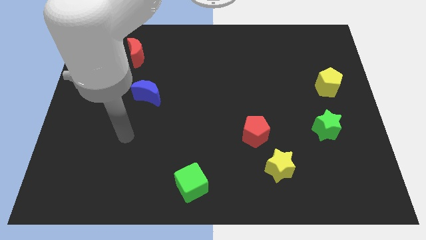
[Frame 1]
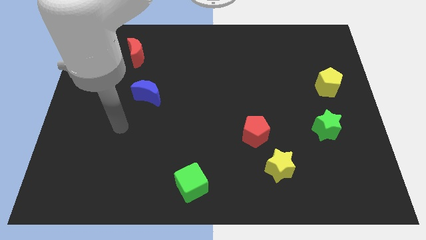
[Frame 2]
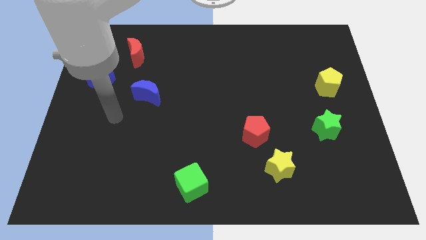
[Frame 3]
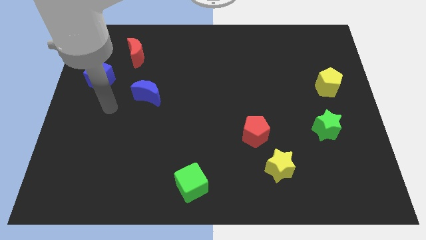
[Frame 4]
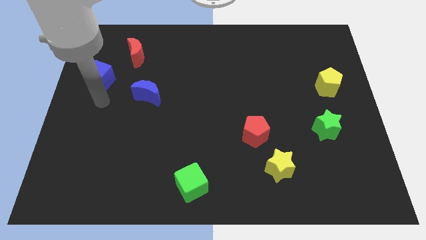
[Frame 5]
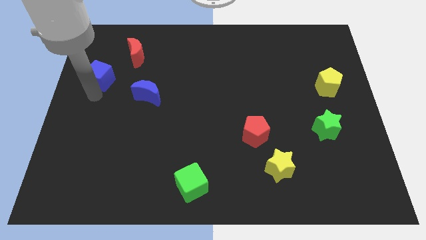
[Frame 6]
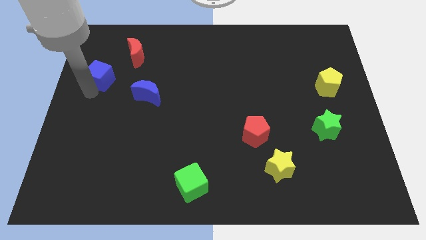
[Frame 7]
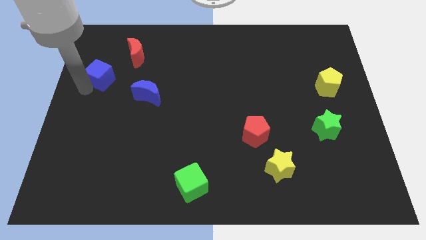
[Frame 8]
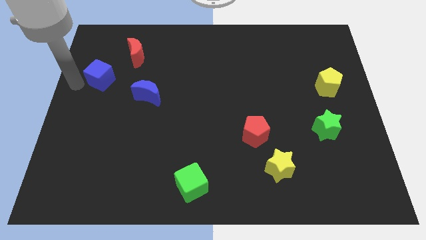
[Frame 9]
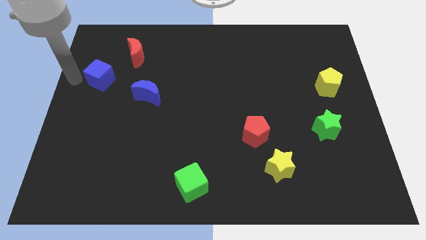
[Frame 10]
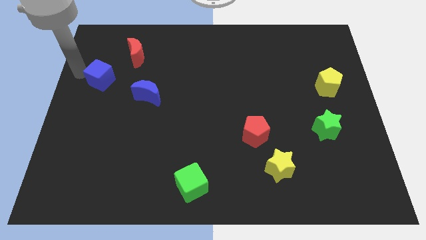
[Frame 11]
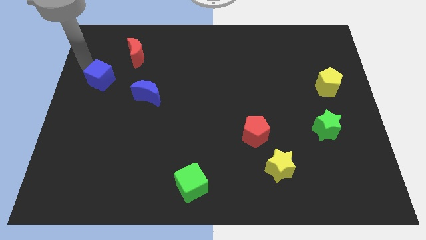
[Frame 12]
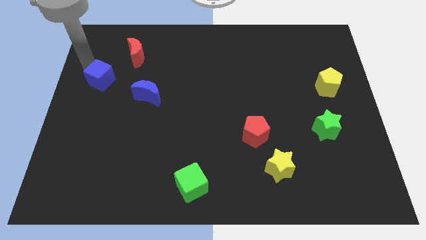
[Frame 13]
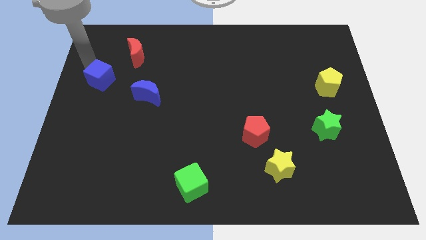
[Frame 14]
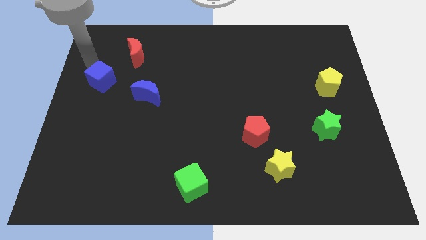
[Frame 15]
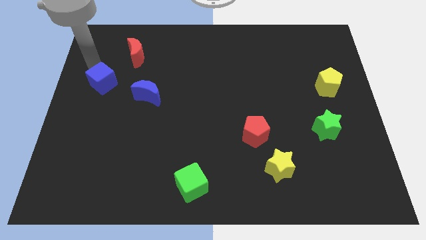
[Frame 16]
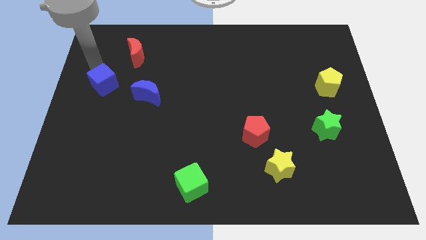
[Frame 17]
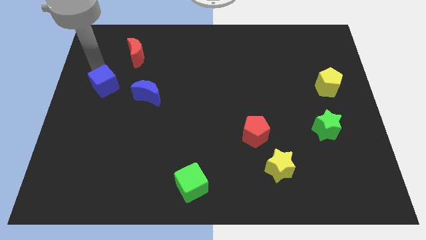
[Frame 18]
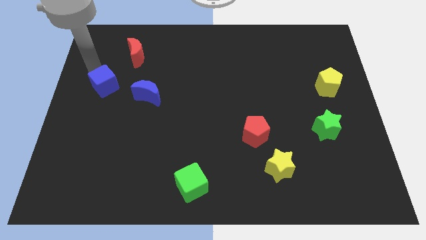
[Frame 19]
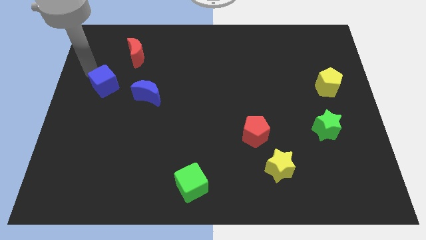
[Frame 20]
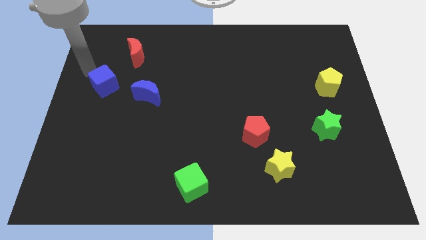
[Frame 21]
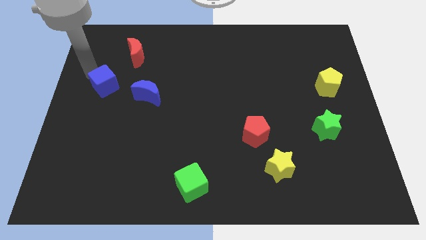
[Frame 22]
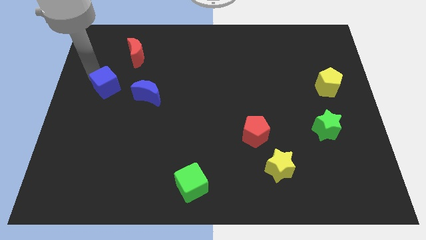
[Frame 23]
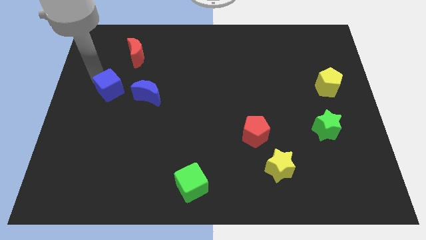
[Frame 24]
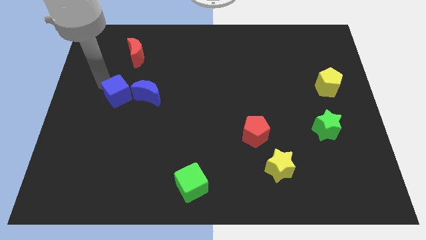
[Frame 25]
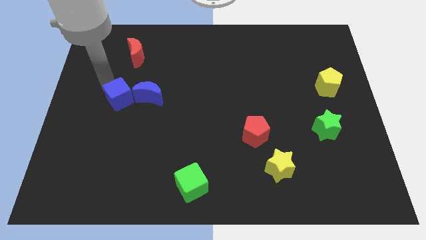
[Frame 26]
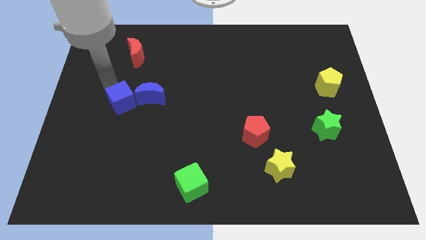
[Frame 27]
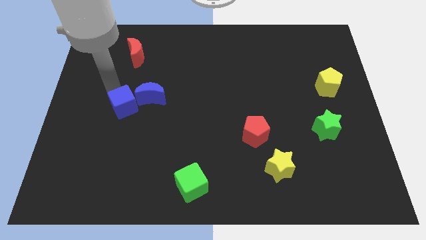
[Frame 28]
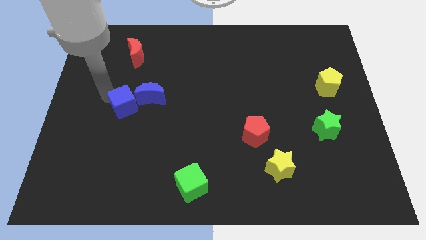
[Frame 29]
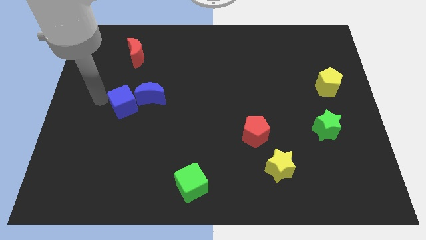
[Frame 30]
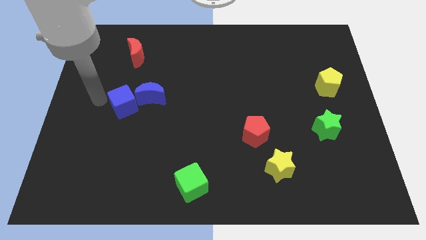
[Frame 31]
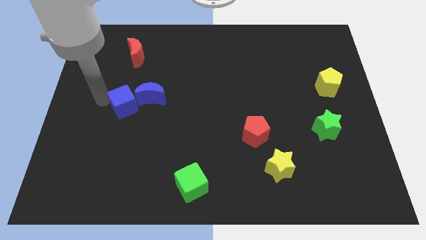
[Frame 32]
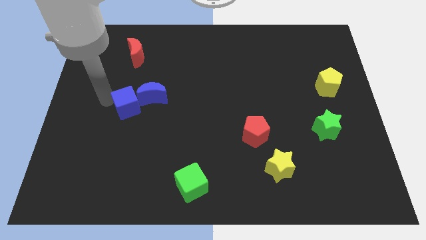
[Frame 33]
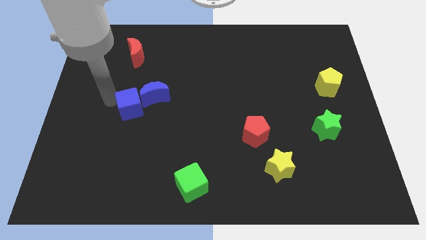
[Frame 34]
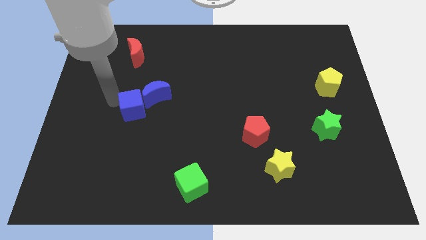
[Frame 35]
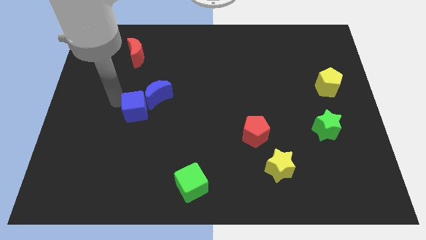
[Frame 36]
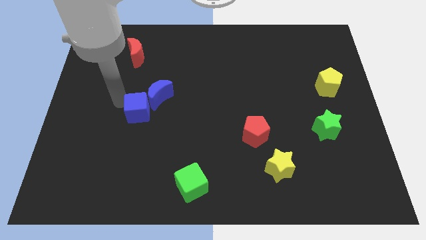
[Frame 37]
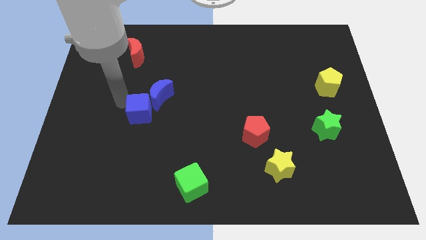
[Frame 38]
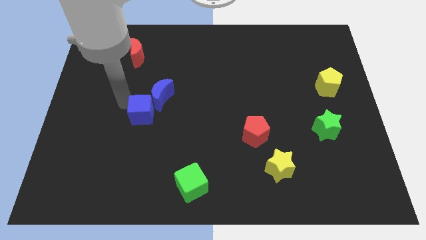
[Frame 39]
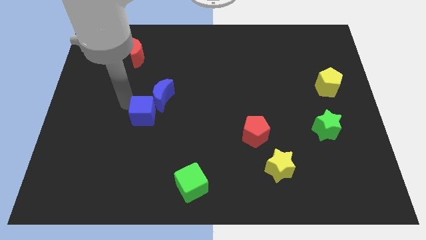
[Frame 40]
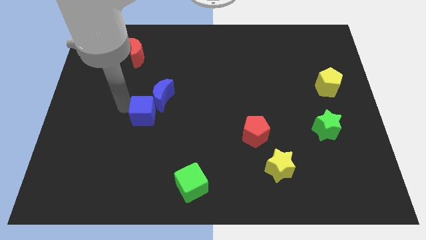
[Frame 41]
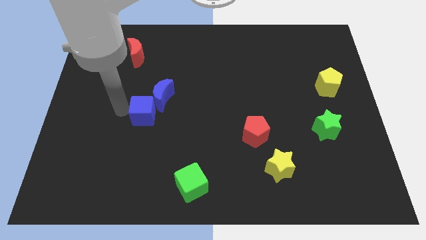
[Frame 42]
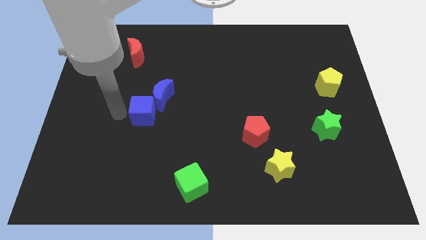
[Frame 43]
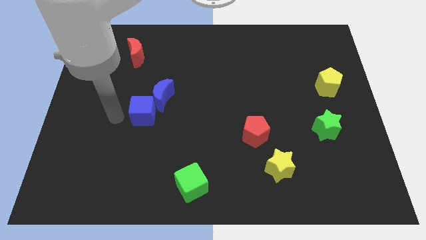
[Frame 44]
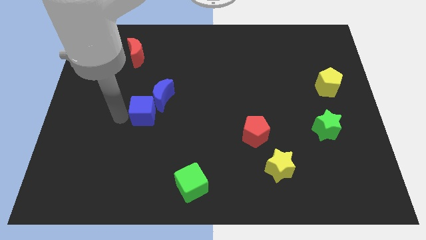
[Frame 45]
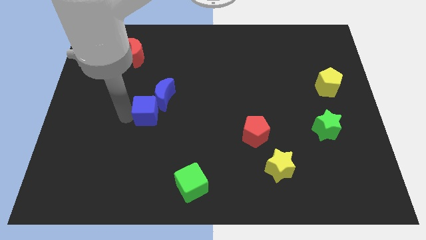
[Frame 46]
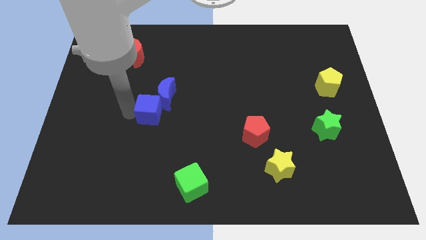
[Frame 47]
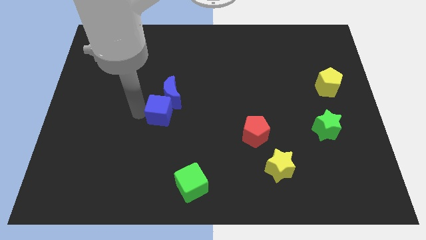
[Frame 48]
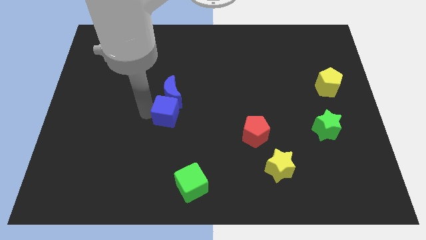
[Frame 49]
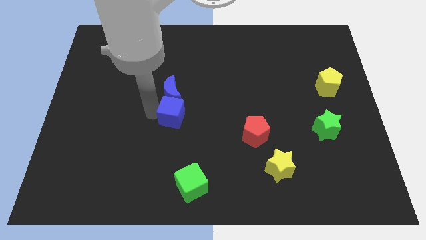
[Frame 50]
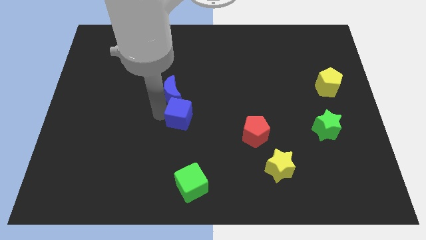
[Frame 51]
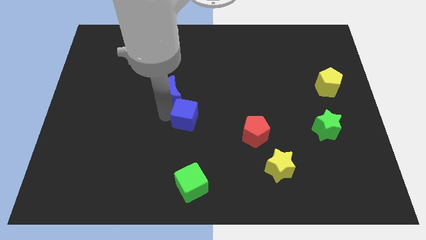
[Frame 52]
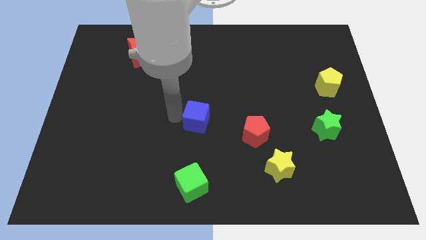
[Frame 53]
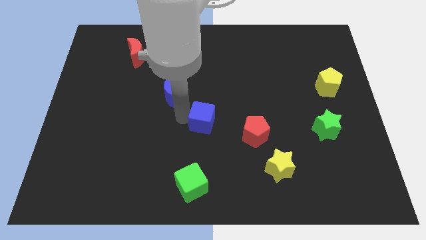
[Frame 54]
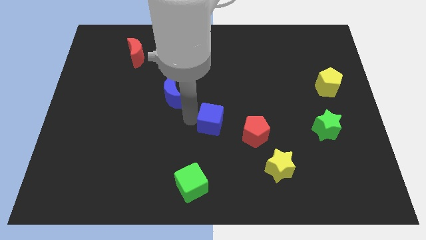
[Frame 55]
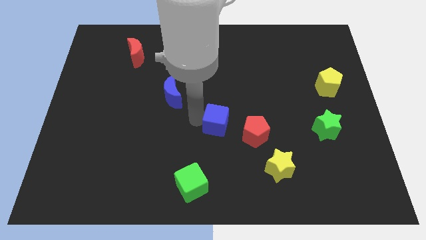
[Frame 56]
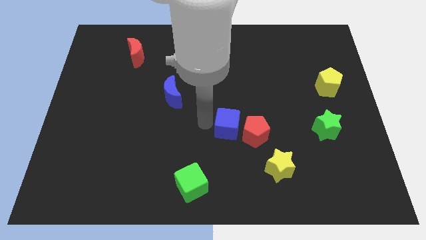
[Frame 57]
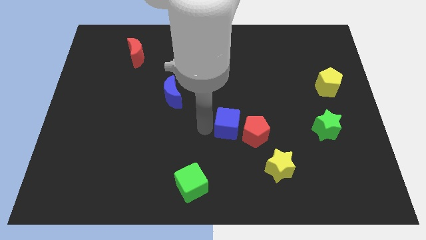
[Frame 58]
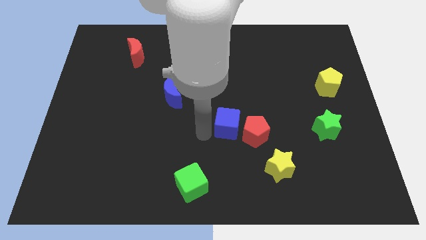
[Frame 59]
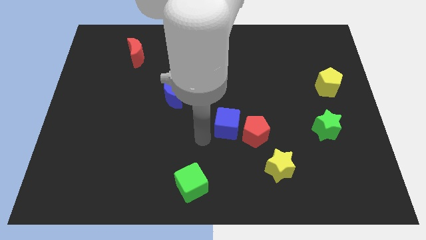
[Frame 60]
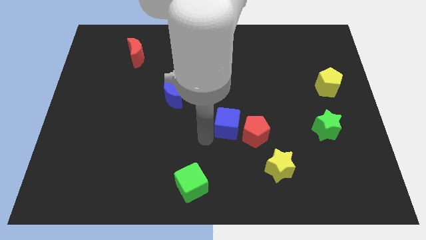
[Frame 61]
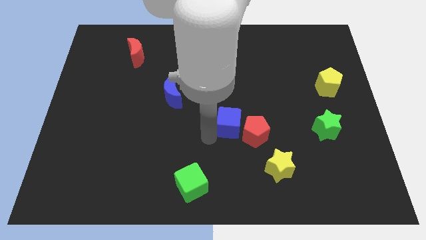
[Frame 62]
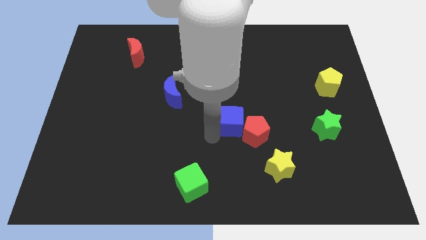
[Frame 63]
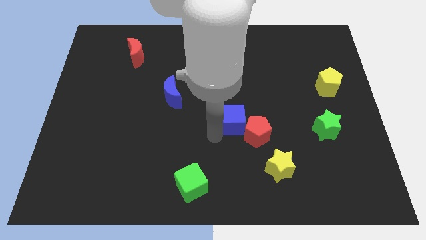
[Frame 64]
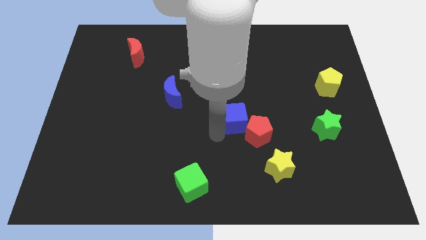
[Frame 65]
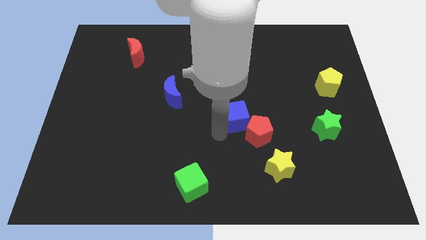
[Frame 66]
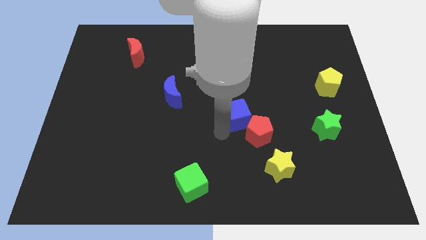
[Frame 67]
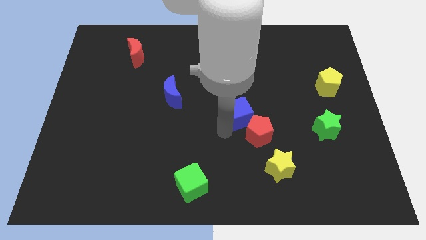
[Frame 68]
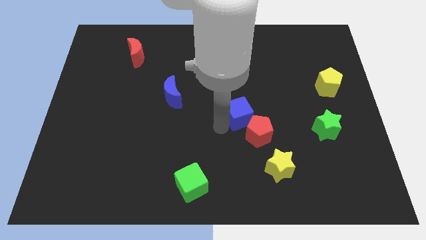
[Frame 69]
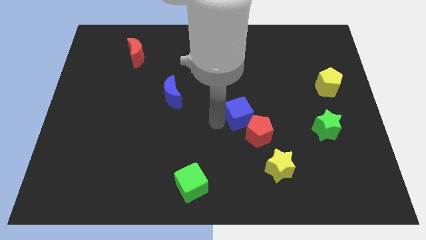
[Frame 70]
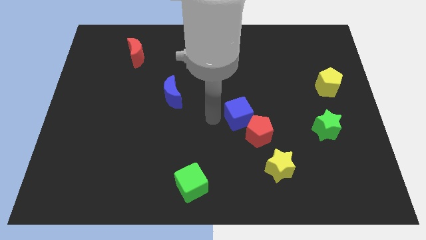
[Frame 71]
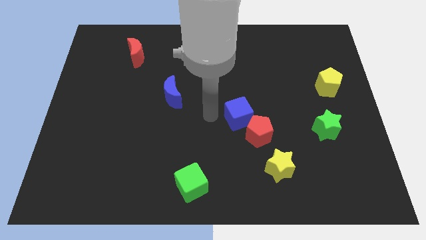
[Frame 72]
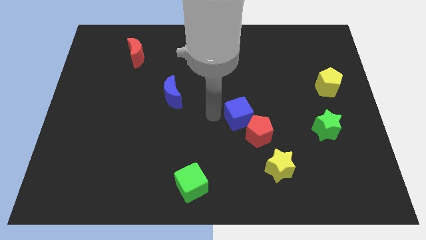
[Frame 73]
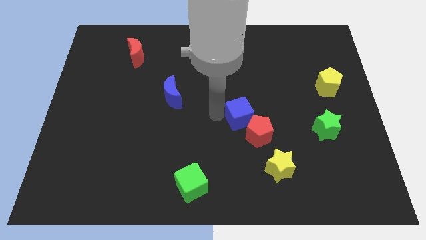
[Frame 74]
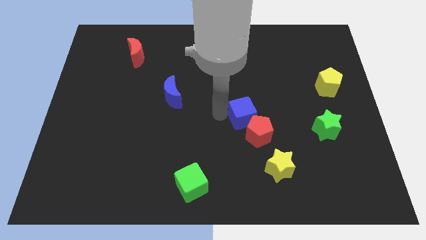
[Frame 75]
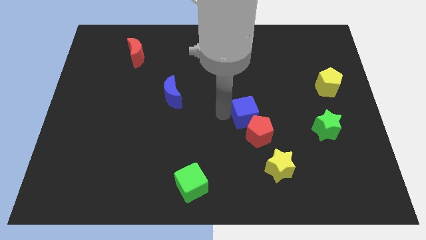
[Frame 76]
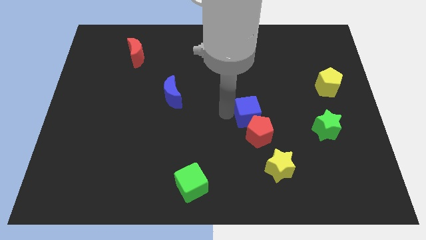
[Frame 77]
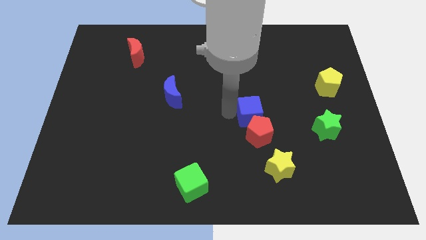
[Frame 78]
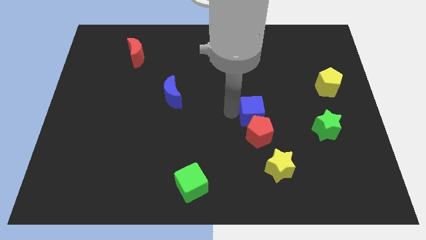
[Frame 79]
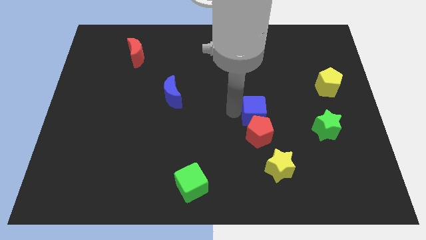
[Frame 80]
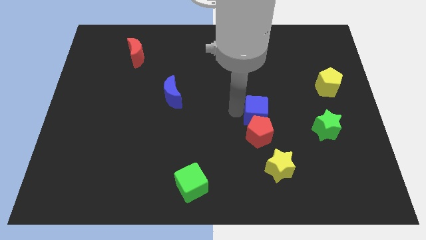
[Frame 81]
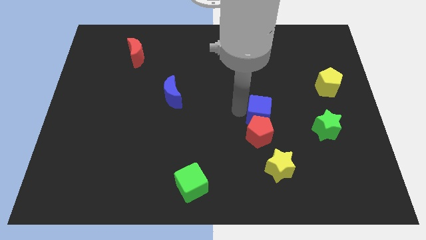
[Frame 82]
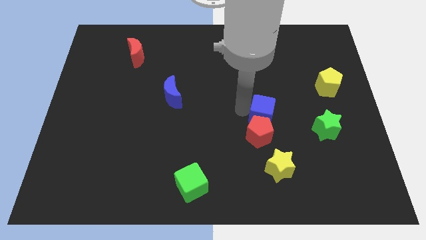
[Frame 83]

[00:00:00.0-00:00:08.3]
put the blue cube to the left of the green star
